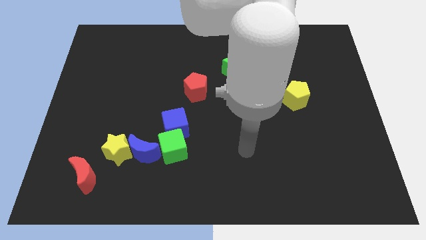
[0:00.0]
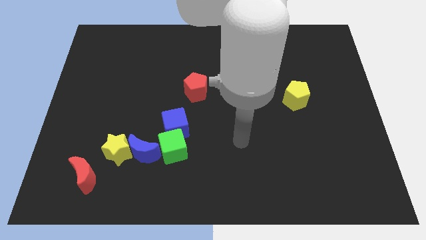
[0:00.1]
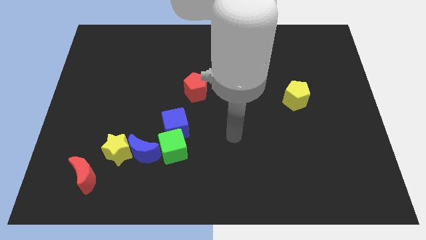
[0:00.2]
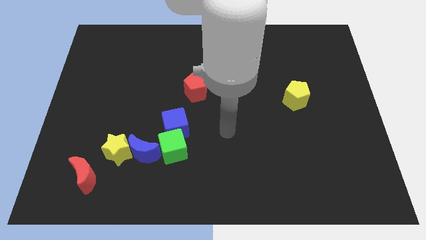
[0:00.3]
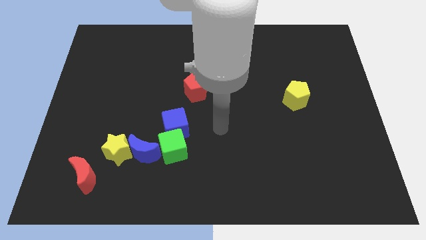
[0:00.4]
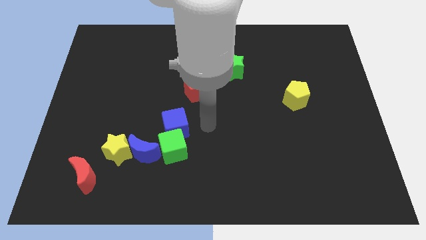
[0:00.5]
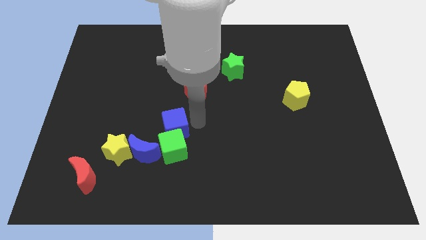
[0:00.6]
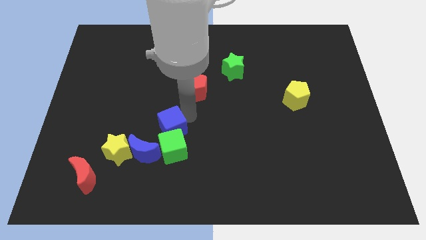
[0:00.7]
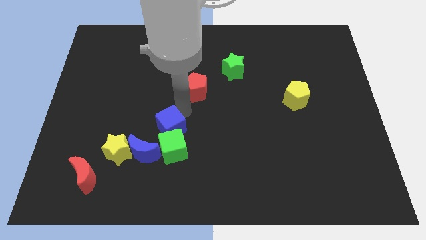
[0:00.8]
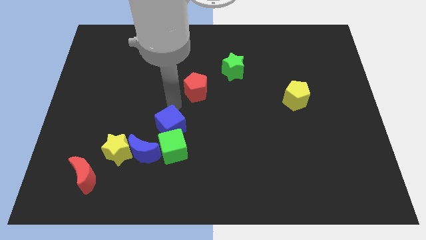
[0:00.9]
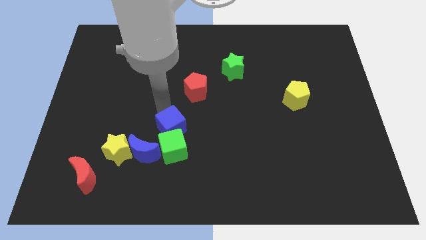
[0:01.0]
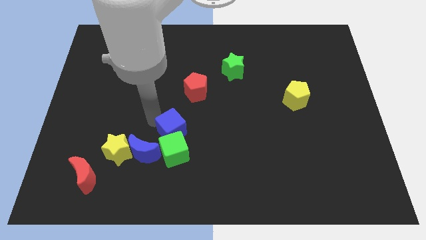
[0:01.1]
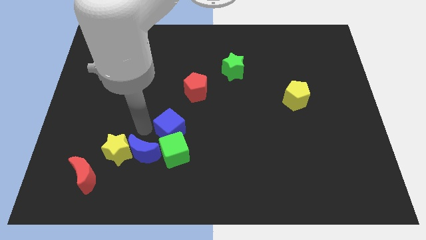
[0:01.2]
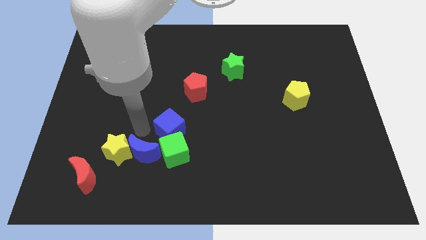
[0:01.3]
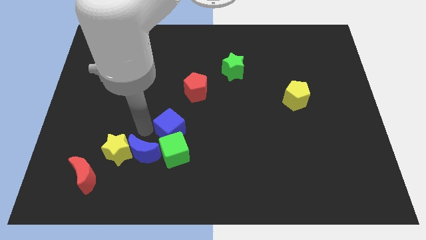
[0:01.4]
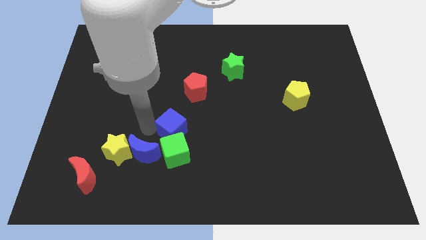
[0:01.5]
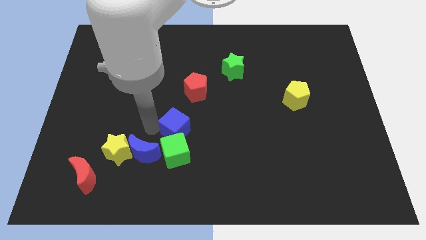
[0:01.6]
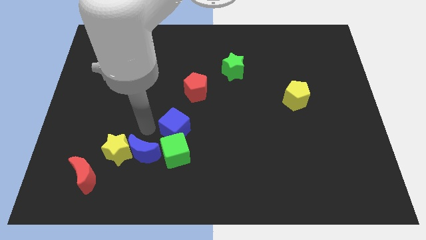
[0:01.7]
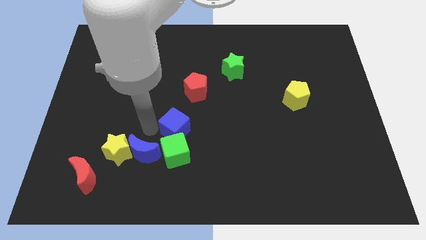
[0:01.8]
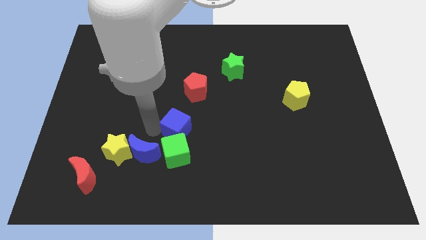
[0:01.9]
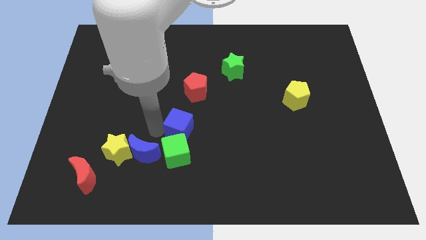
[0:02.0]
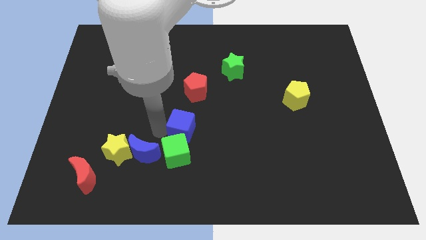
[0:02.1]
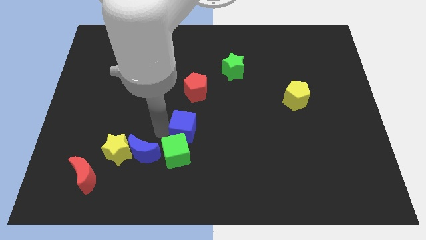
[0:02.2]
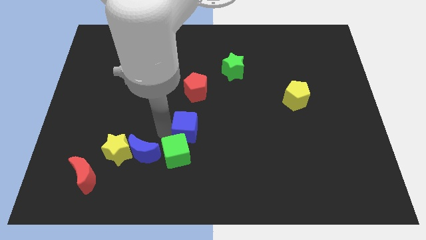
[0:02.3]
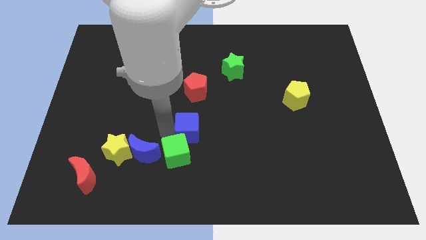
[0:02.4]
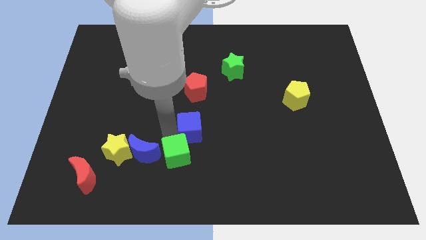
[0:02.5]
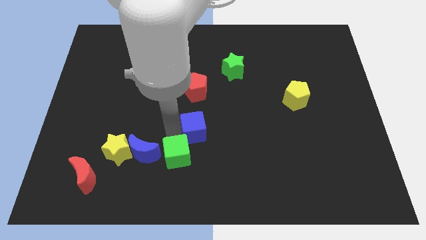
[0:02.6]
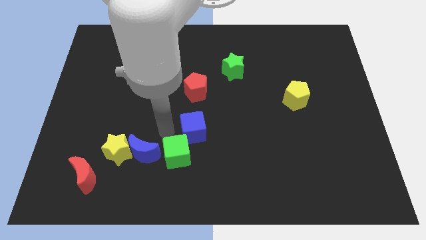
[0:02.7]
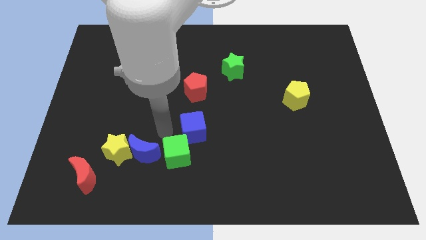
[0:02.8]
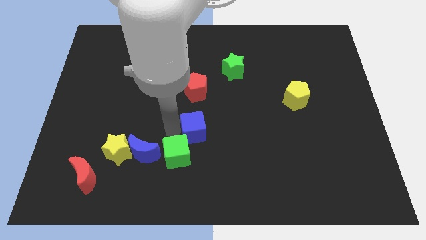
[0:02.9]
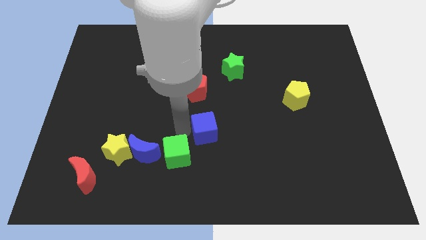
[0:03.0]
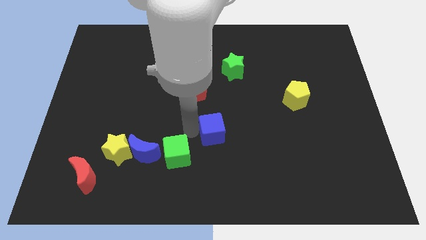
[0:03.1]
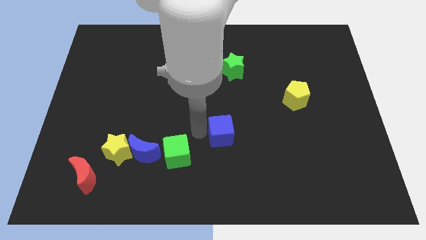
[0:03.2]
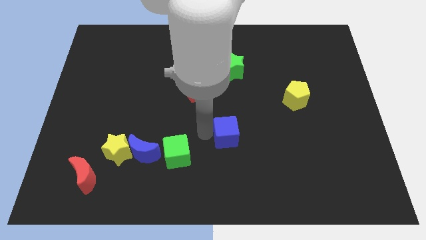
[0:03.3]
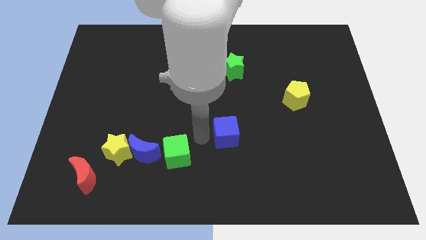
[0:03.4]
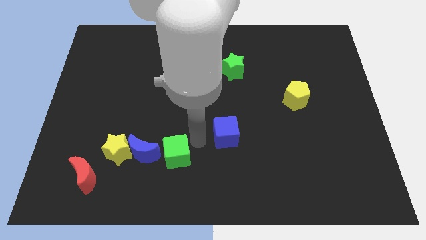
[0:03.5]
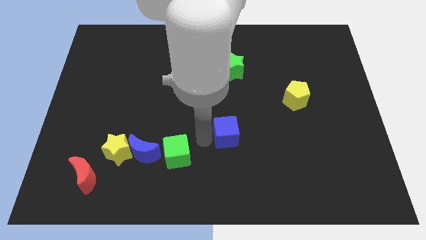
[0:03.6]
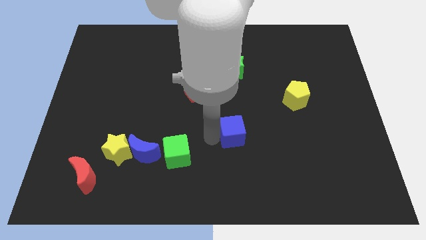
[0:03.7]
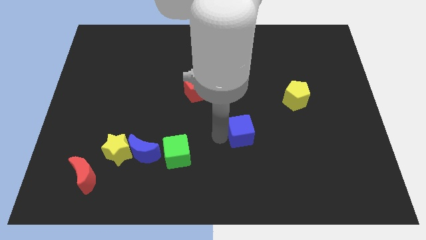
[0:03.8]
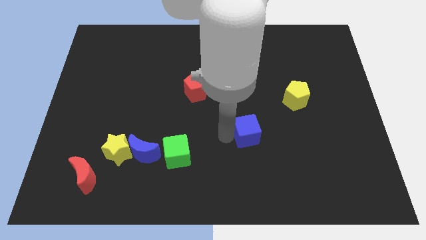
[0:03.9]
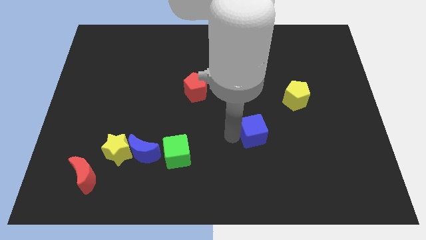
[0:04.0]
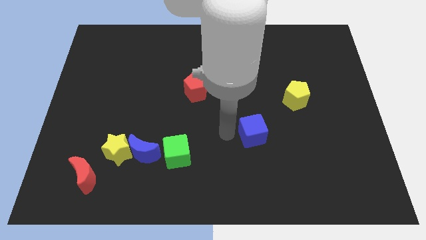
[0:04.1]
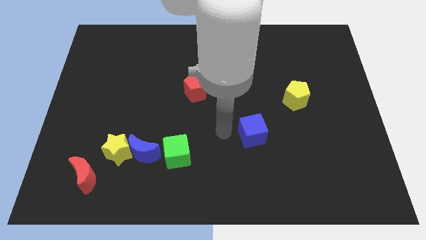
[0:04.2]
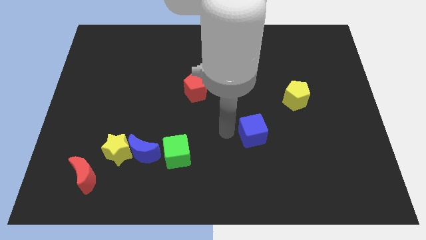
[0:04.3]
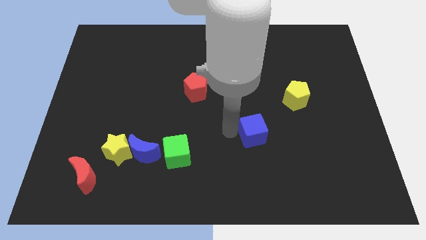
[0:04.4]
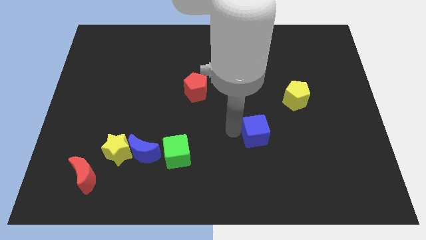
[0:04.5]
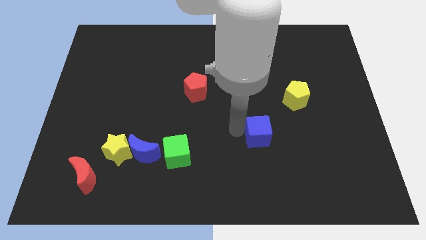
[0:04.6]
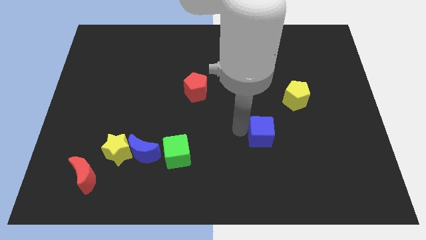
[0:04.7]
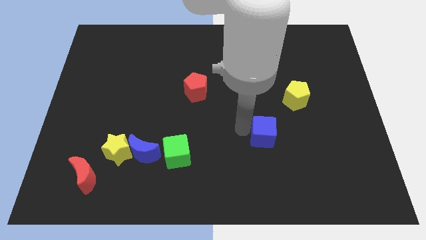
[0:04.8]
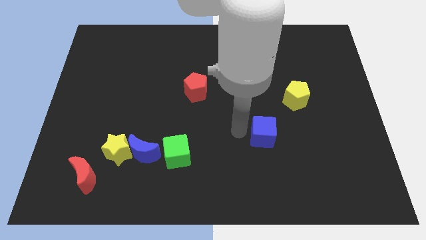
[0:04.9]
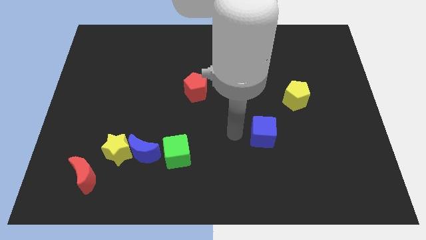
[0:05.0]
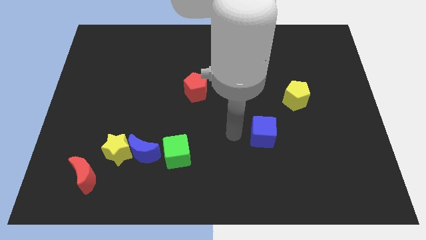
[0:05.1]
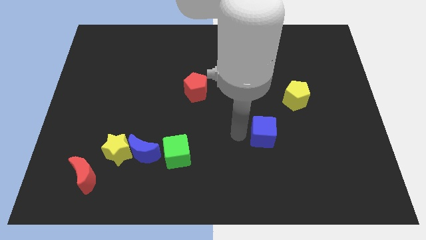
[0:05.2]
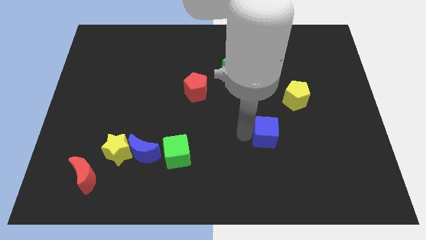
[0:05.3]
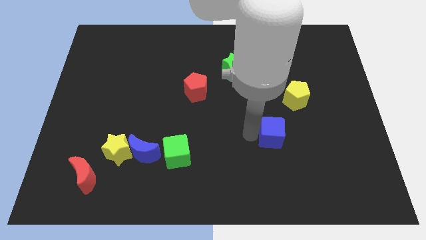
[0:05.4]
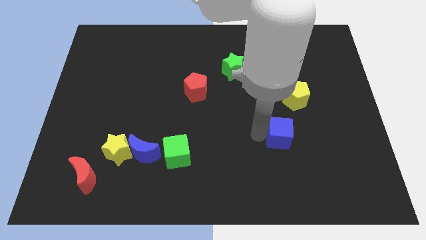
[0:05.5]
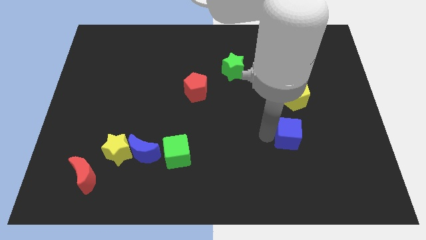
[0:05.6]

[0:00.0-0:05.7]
push the blue cube to the bottom of the yellow pentagon
